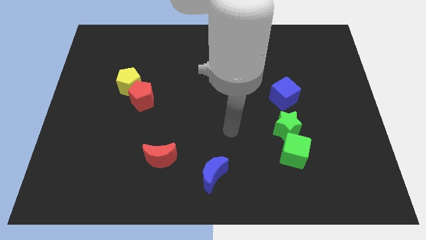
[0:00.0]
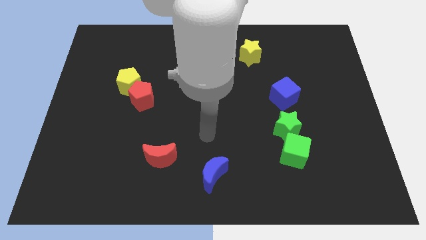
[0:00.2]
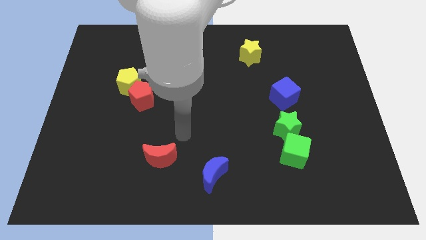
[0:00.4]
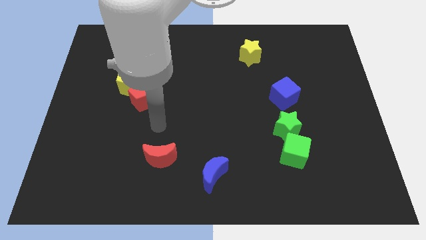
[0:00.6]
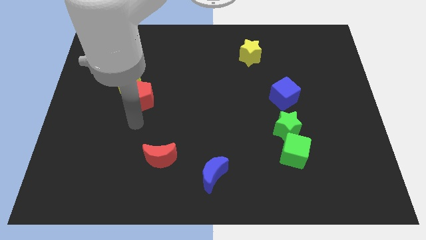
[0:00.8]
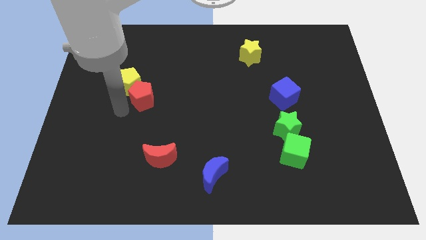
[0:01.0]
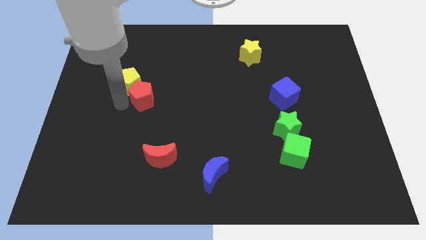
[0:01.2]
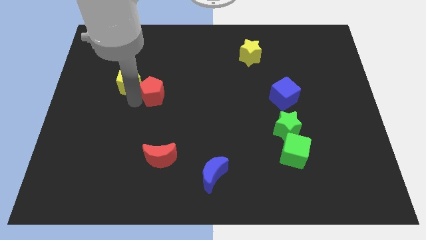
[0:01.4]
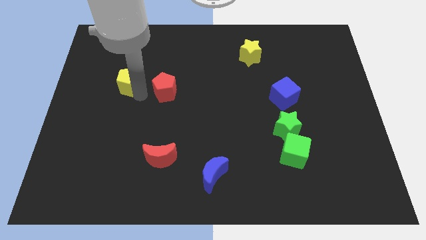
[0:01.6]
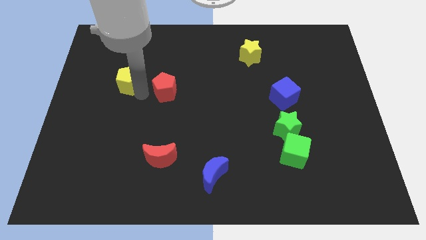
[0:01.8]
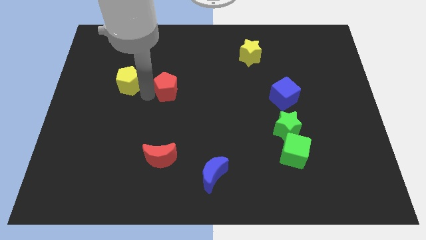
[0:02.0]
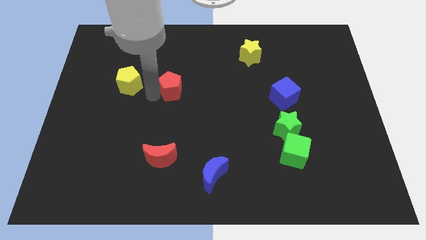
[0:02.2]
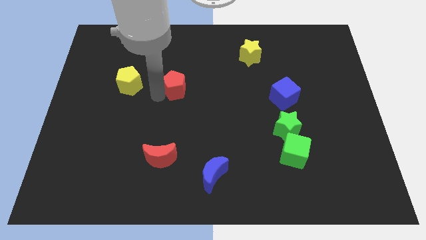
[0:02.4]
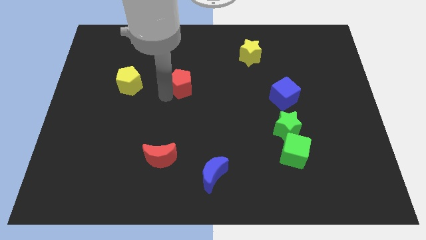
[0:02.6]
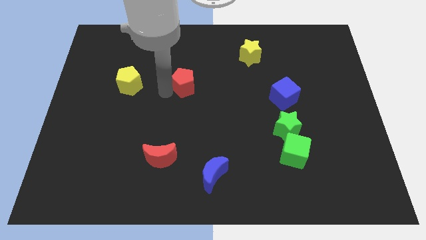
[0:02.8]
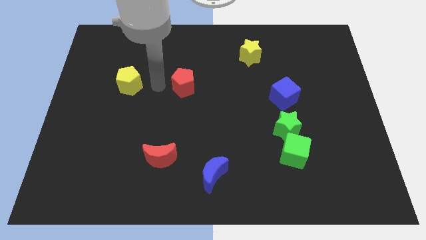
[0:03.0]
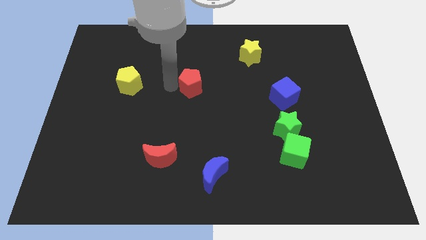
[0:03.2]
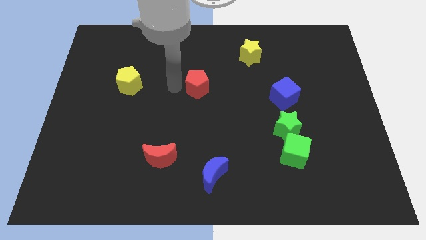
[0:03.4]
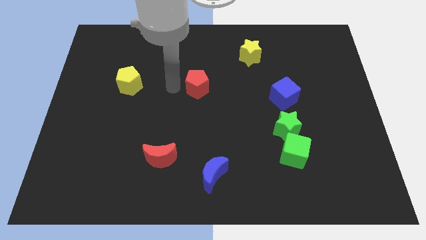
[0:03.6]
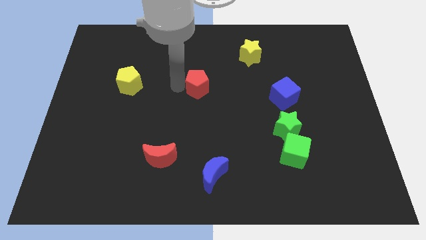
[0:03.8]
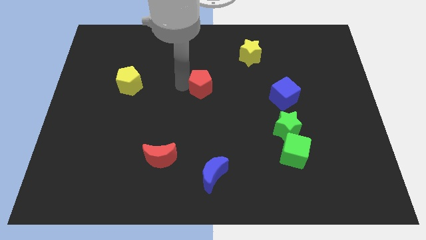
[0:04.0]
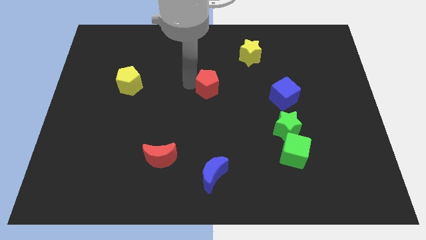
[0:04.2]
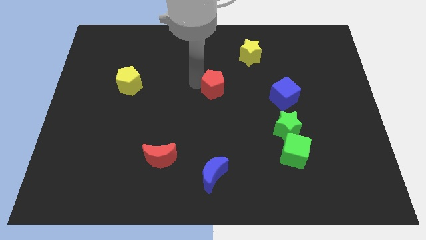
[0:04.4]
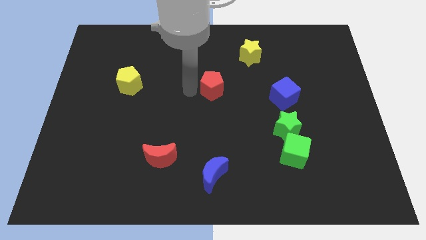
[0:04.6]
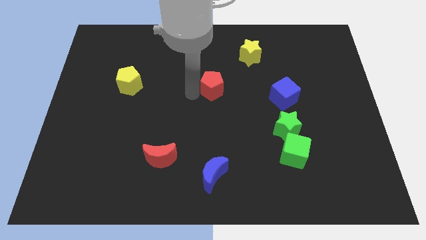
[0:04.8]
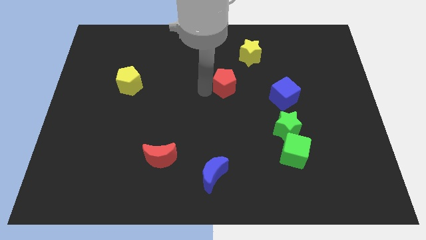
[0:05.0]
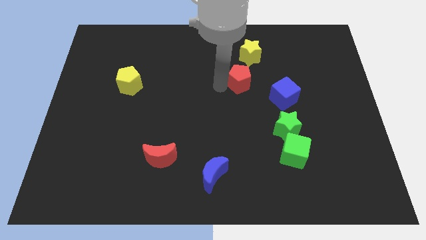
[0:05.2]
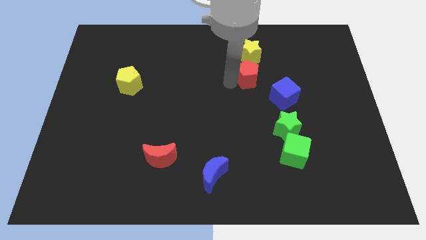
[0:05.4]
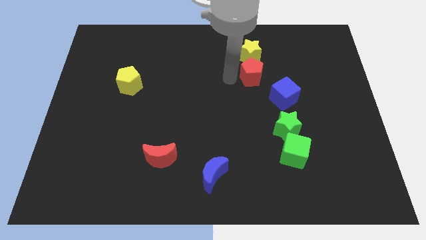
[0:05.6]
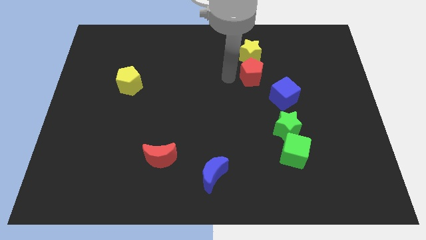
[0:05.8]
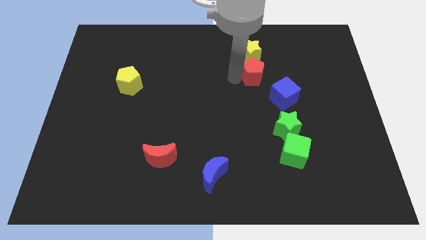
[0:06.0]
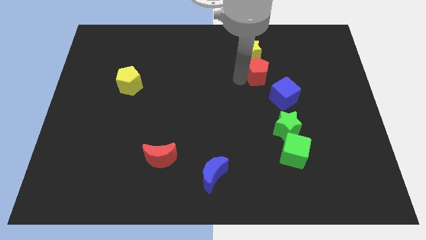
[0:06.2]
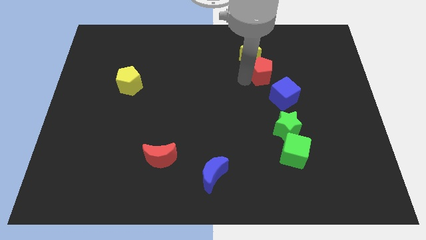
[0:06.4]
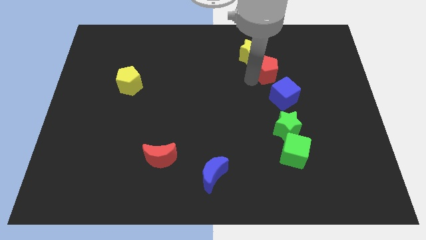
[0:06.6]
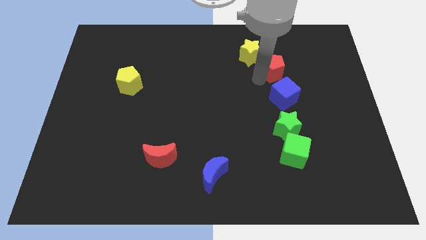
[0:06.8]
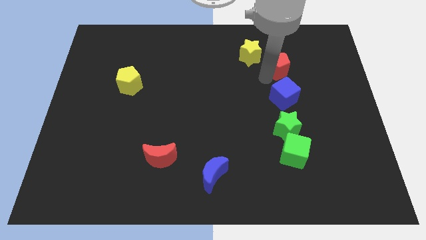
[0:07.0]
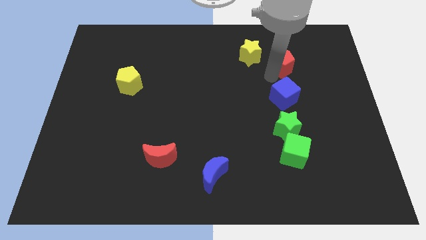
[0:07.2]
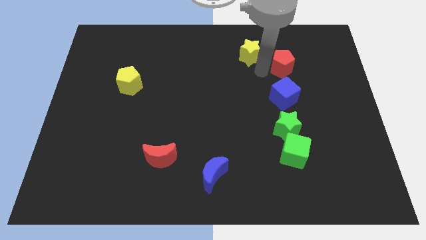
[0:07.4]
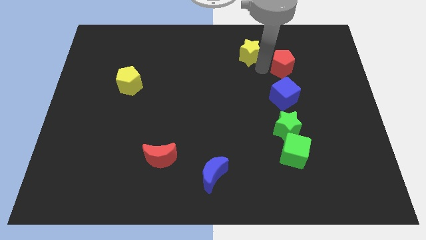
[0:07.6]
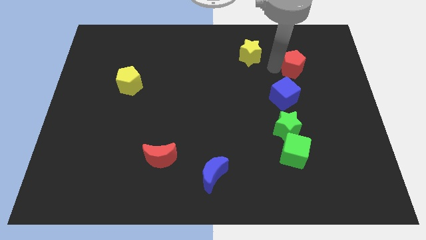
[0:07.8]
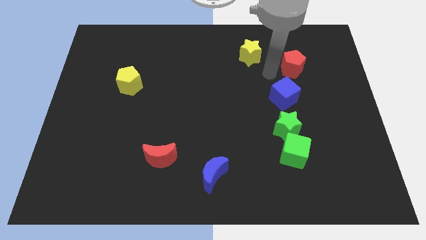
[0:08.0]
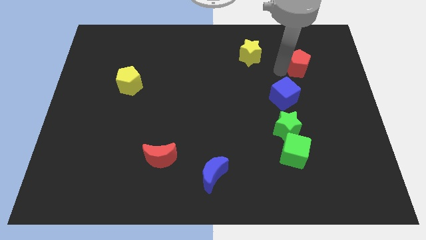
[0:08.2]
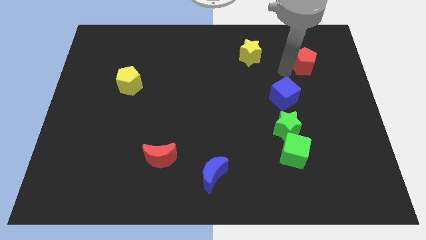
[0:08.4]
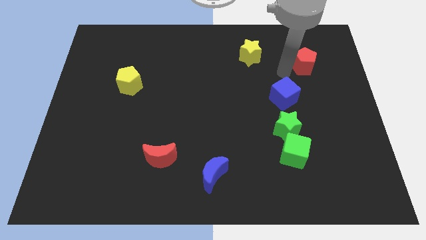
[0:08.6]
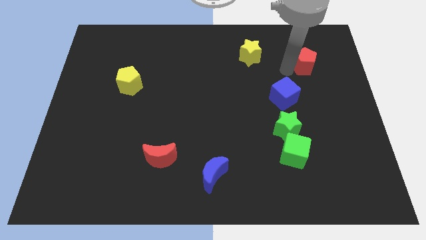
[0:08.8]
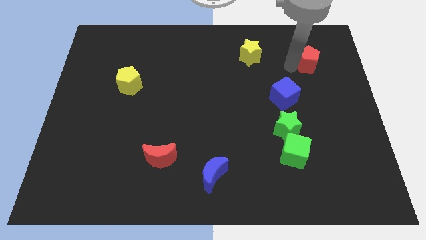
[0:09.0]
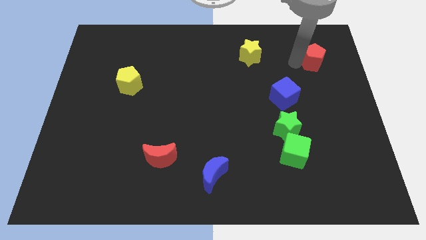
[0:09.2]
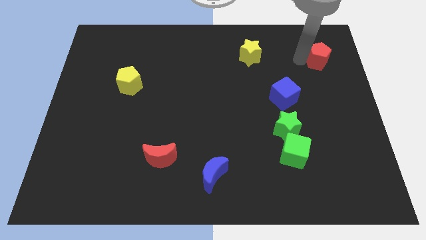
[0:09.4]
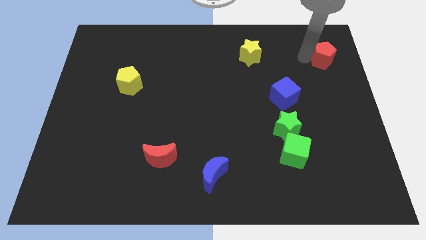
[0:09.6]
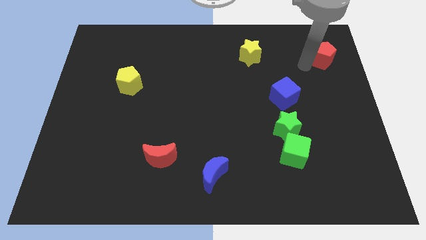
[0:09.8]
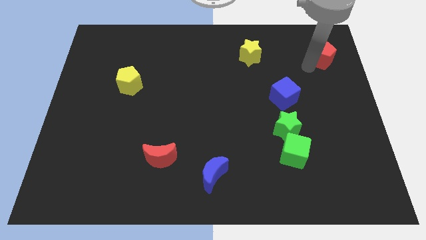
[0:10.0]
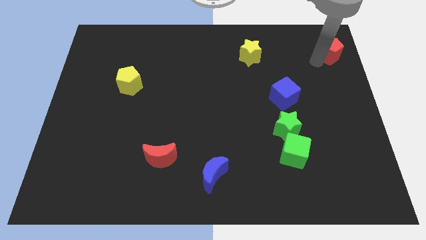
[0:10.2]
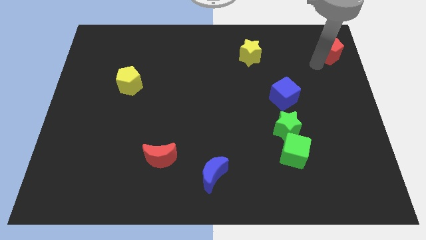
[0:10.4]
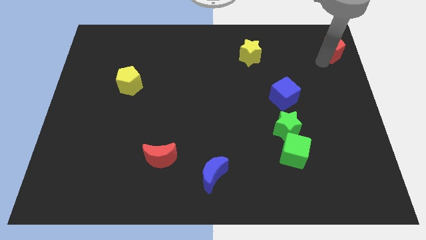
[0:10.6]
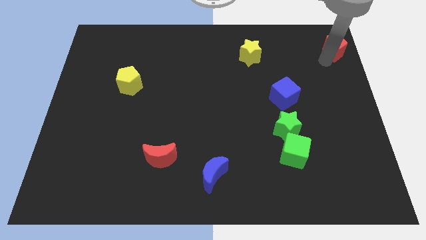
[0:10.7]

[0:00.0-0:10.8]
put the red pentagon to the upper right corner
